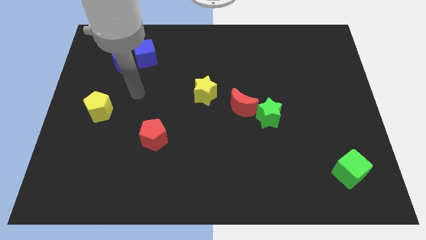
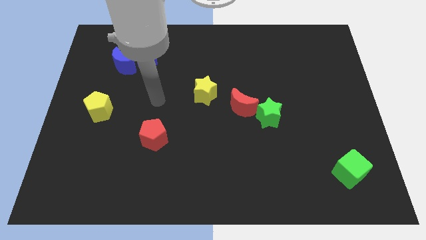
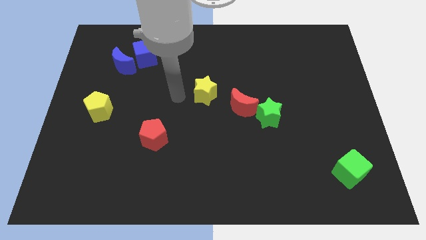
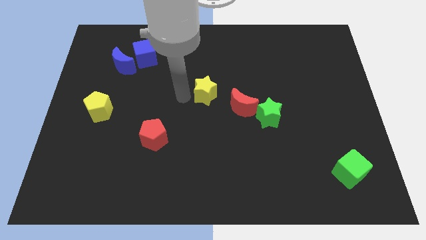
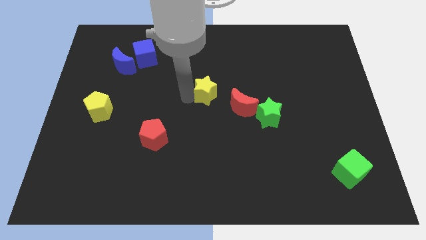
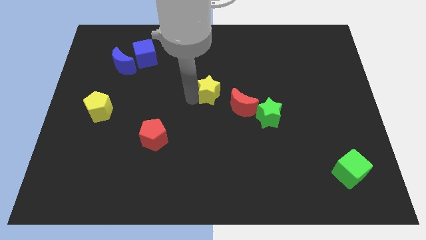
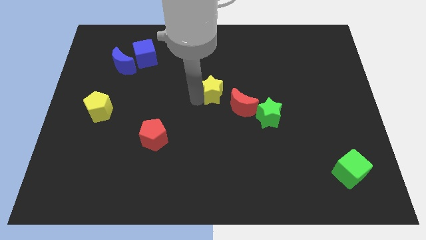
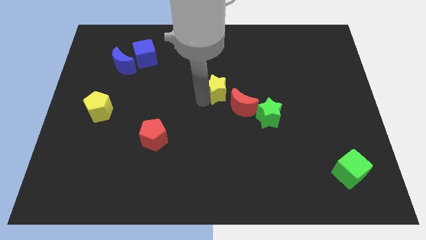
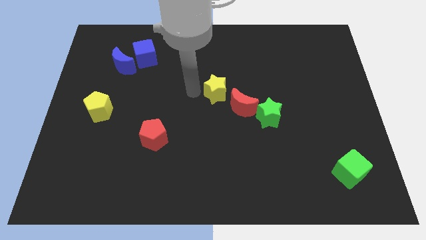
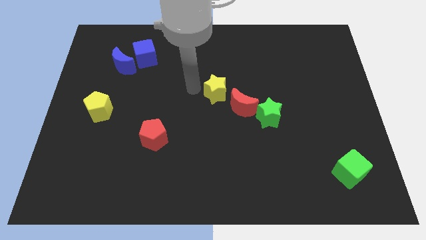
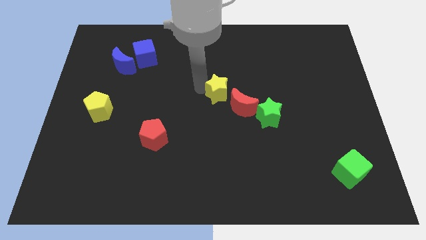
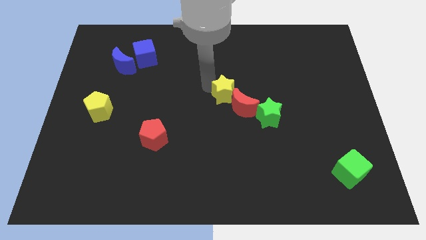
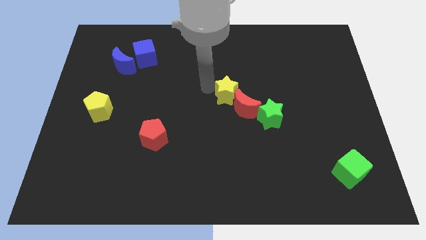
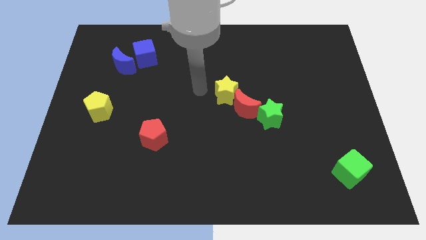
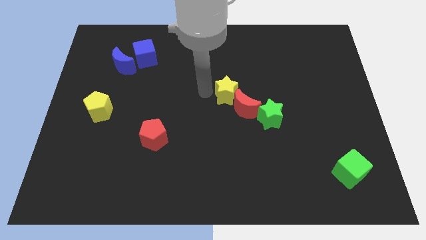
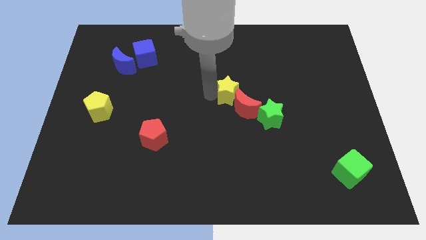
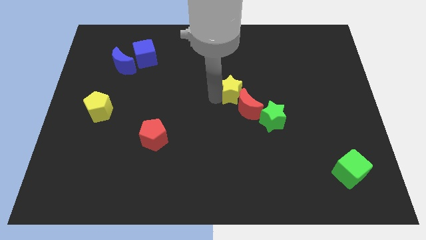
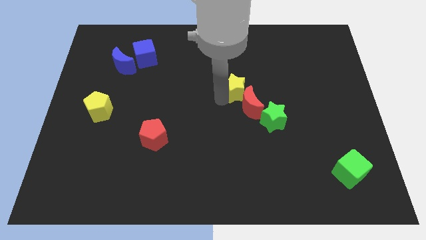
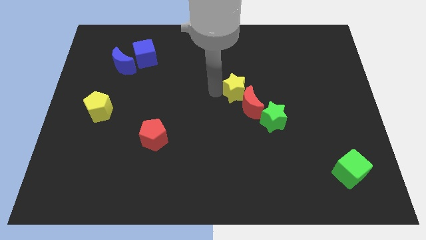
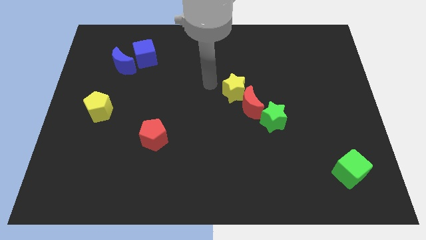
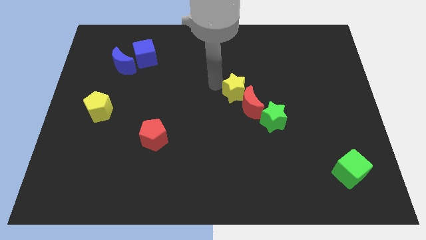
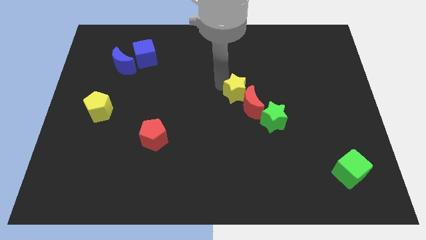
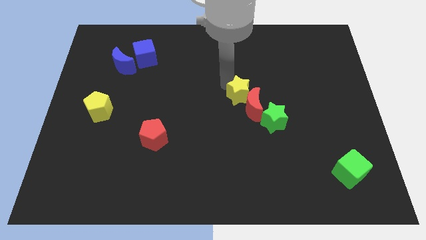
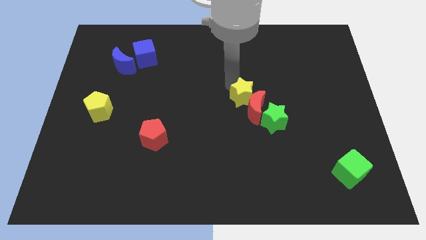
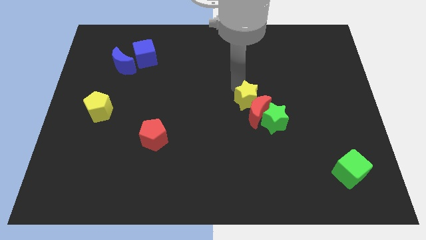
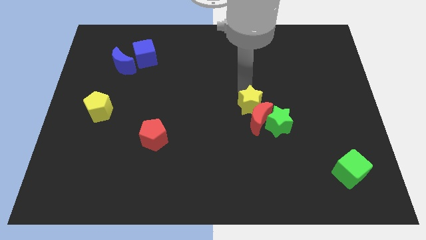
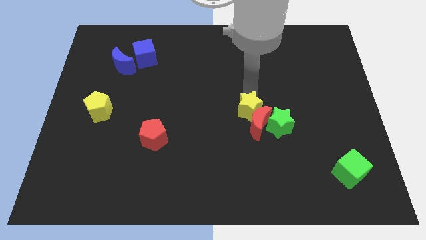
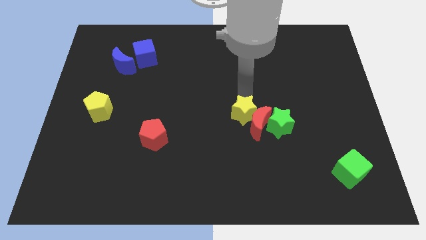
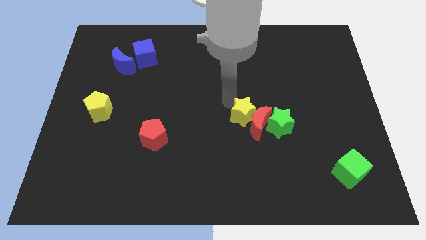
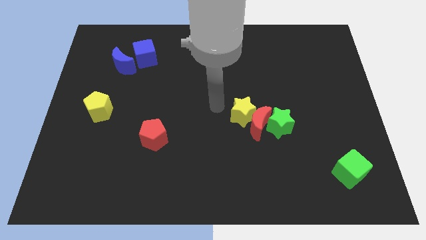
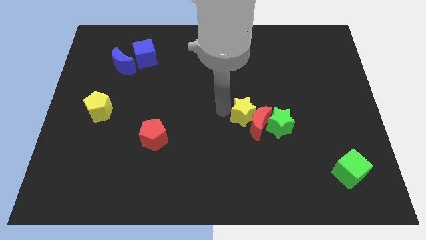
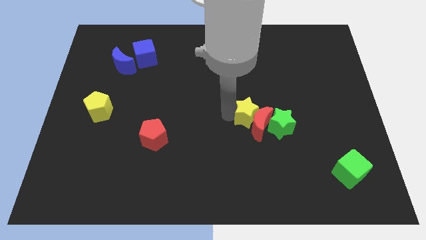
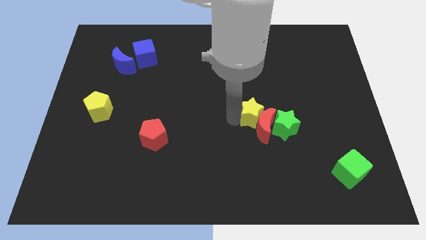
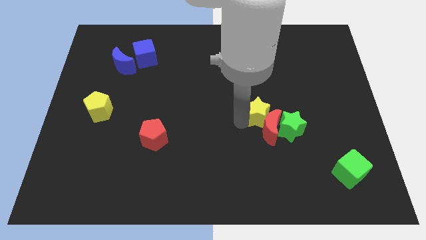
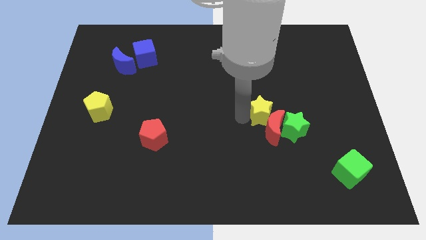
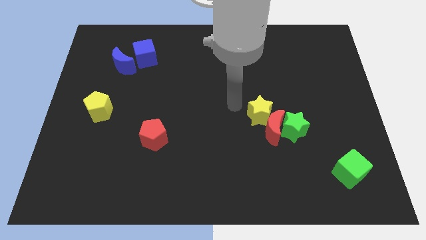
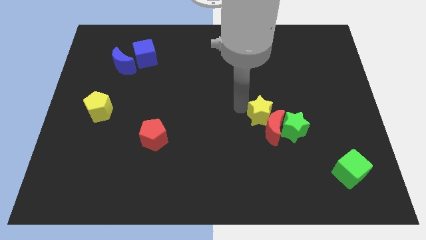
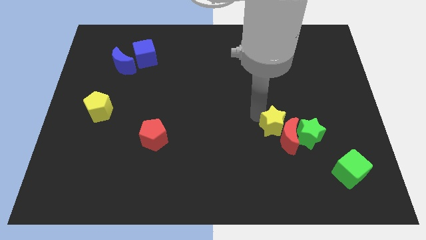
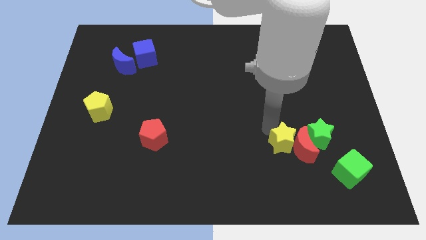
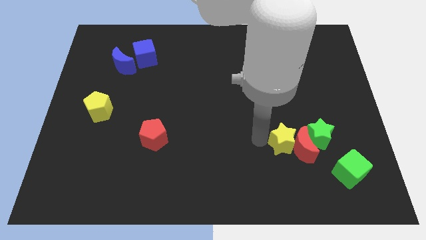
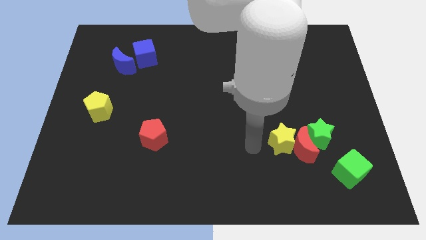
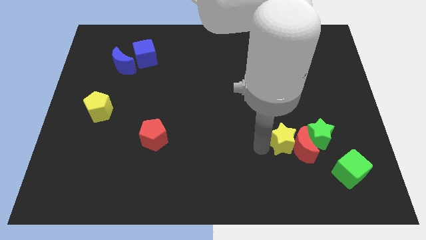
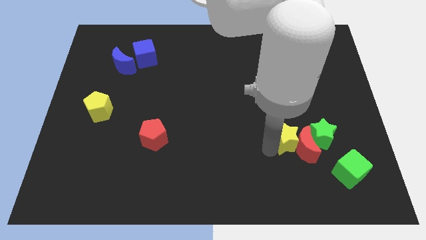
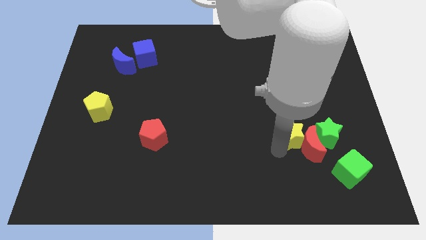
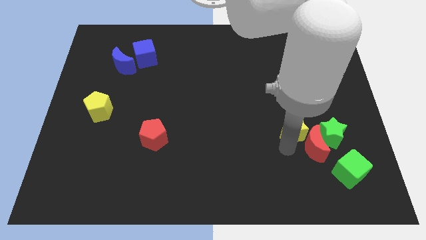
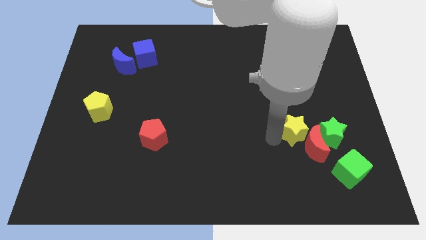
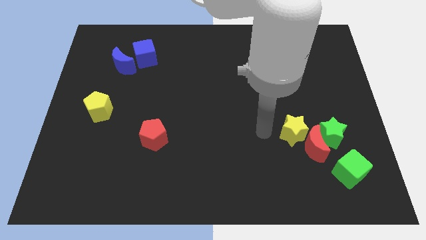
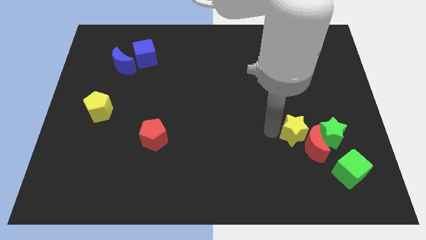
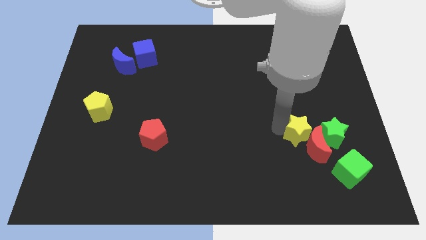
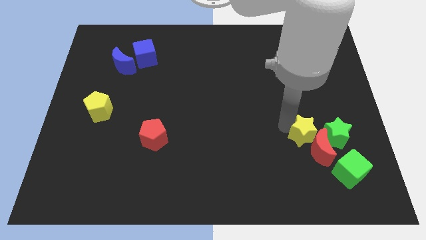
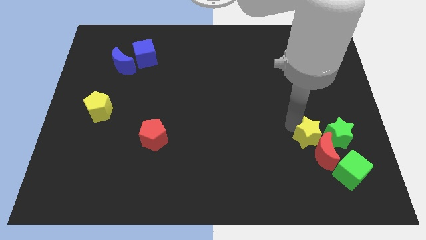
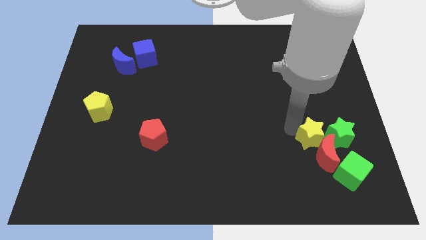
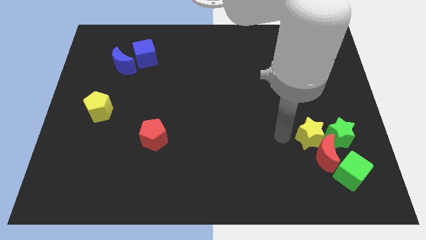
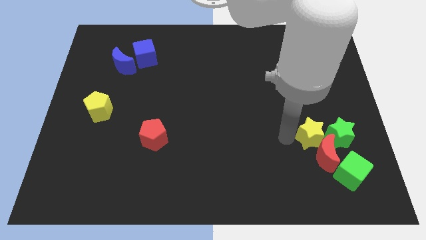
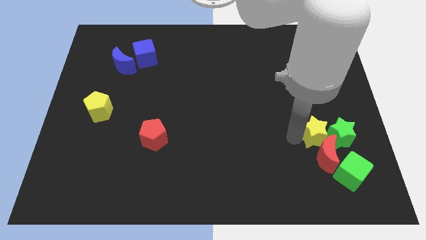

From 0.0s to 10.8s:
slide the yellow star close to the green star

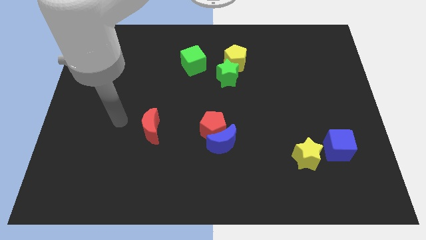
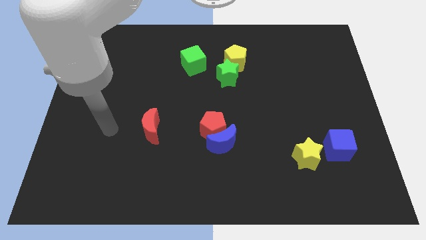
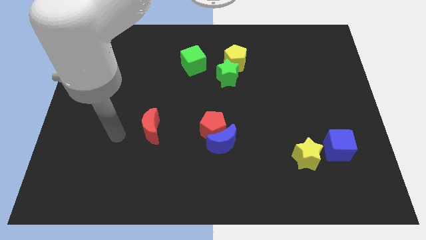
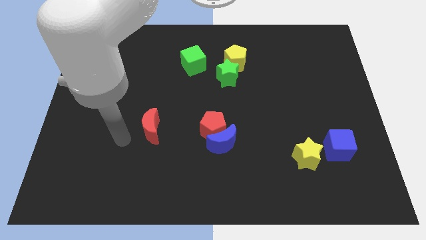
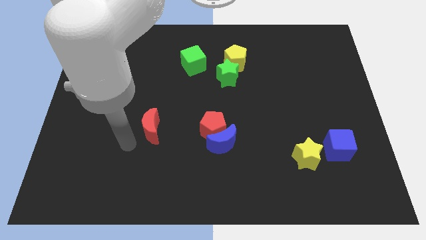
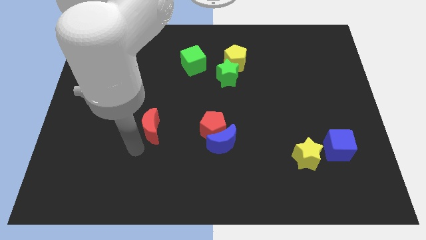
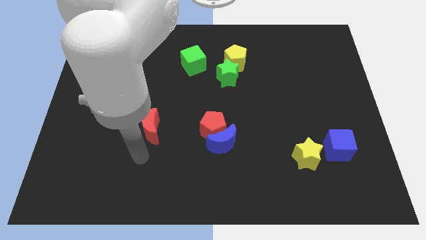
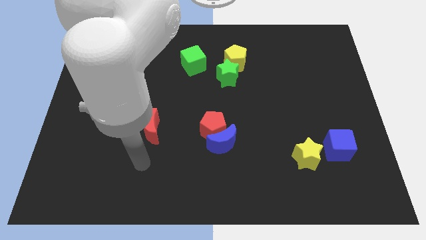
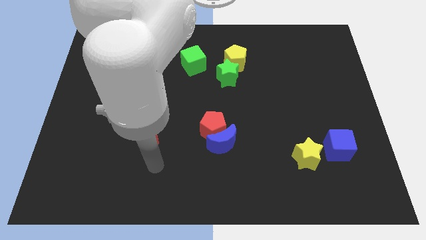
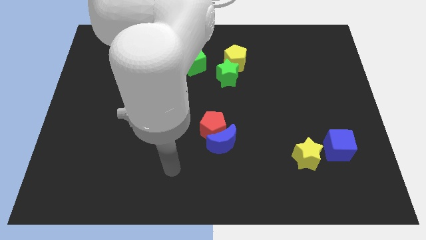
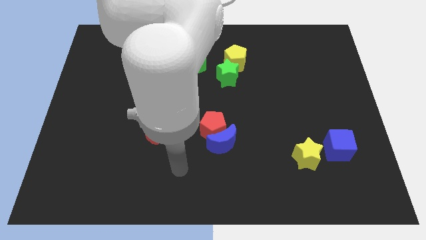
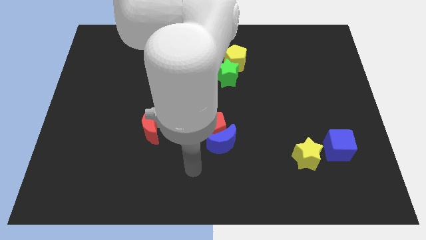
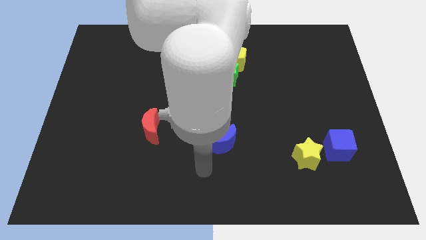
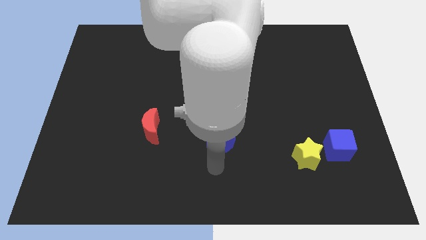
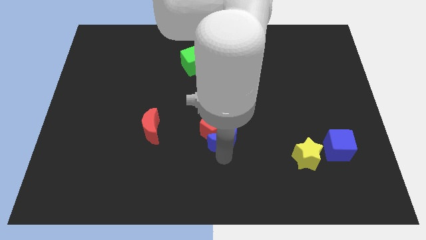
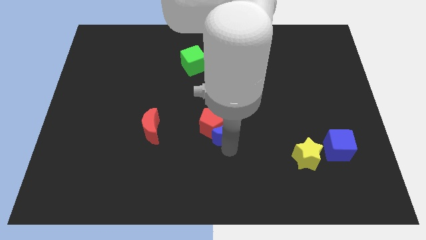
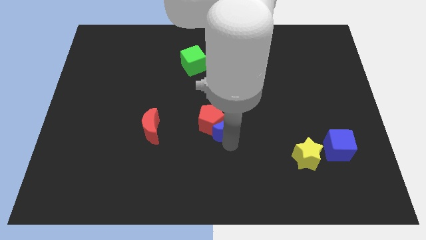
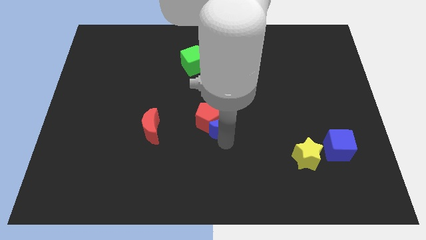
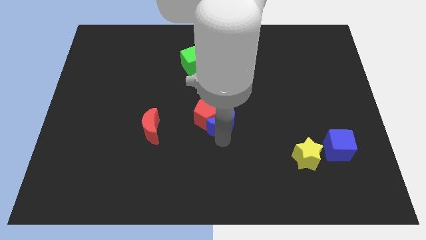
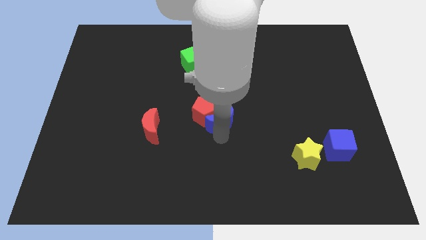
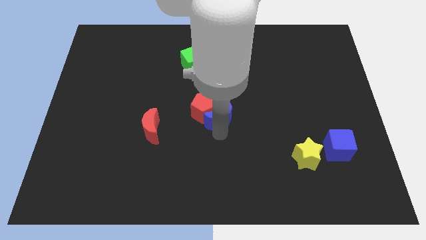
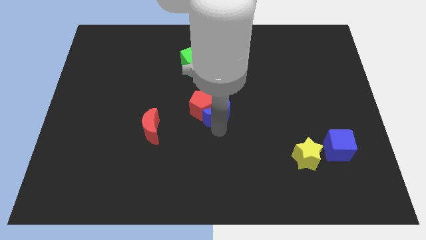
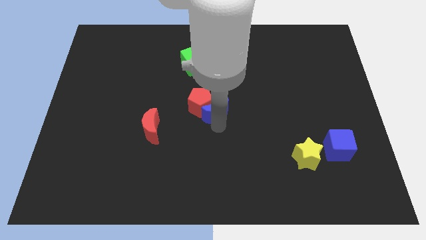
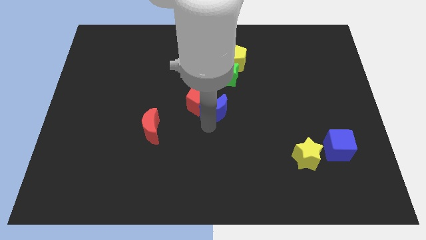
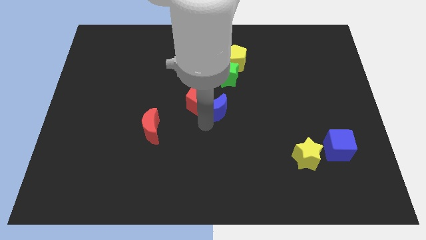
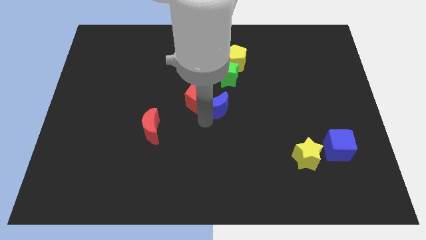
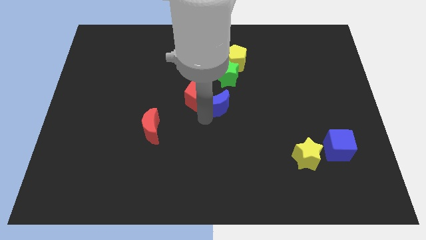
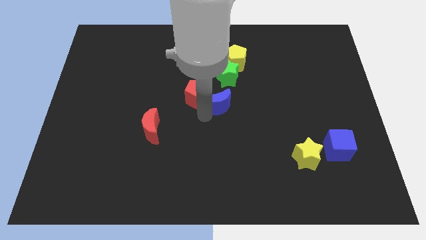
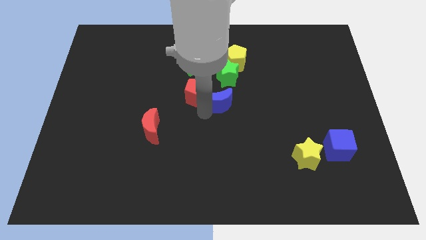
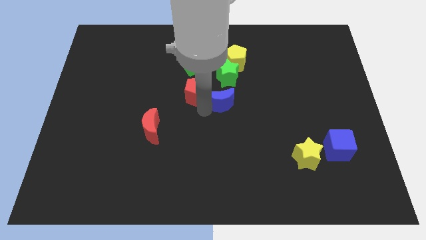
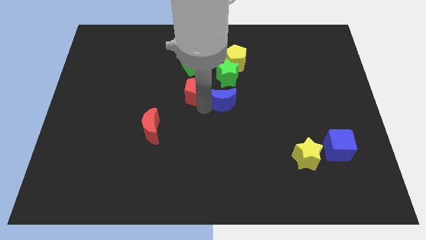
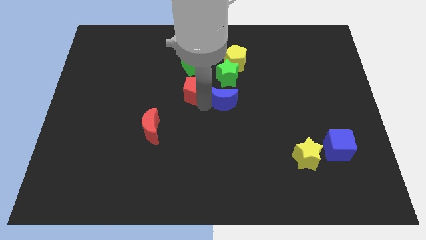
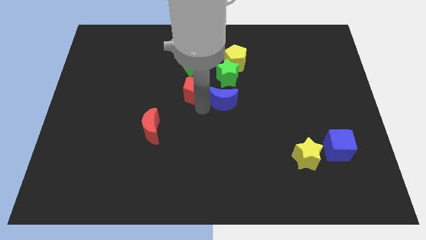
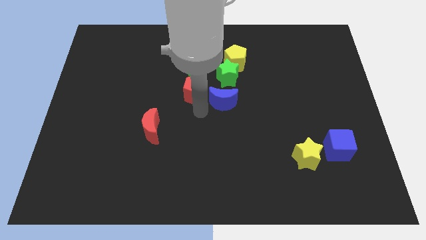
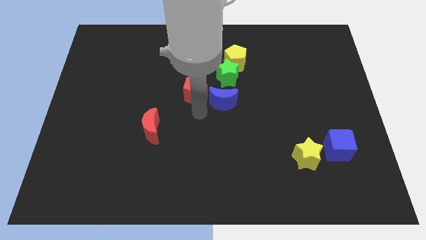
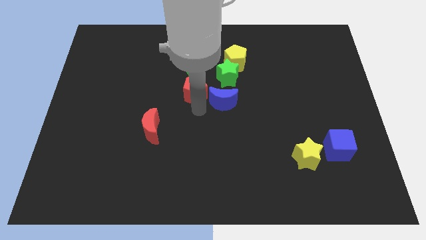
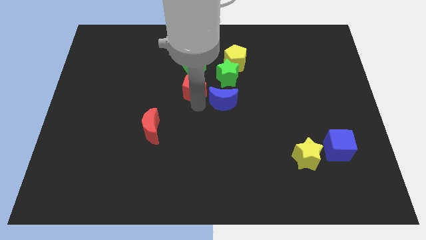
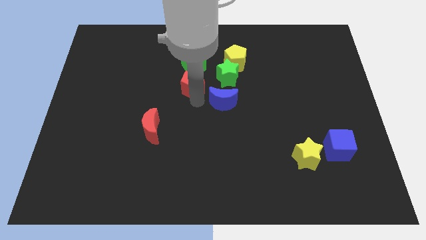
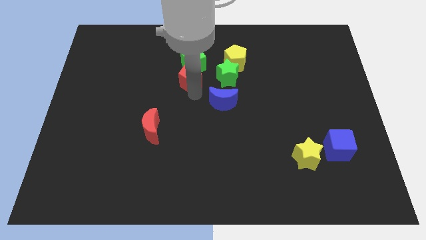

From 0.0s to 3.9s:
put the red pentagon next to the green cube
